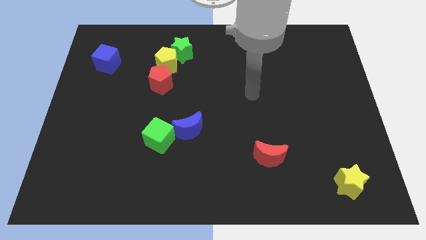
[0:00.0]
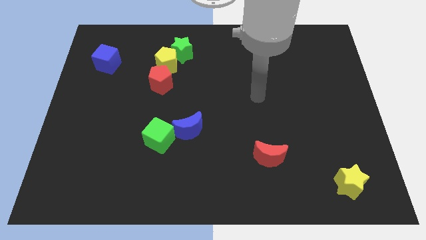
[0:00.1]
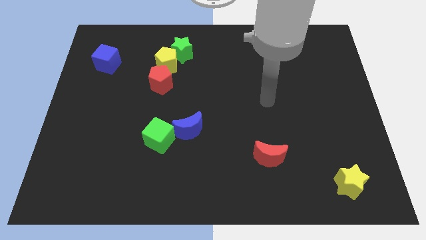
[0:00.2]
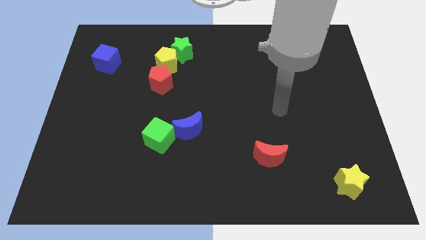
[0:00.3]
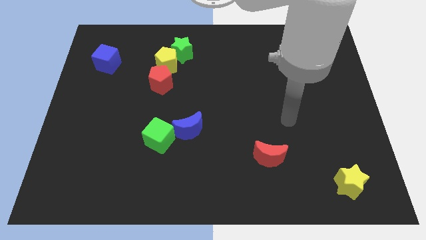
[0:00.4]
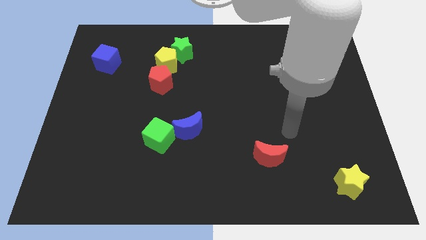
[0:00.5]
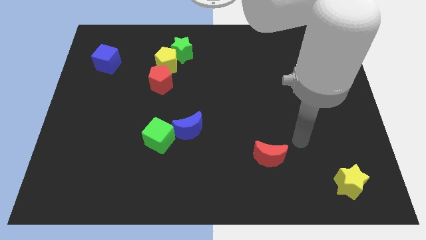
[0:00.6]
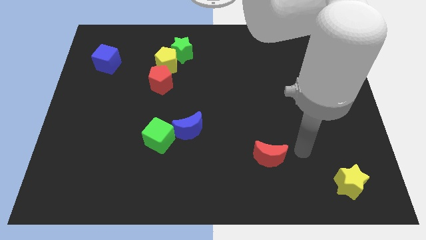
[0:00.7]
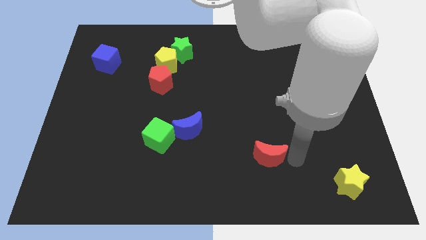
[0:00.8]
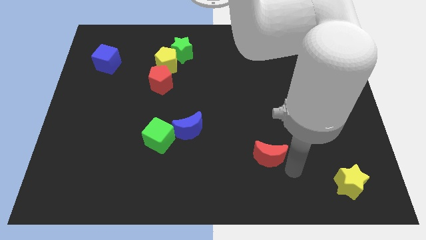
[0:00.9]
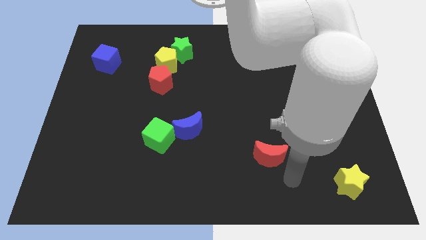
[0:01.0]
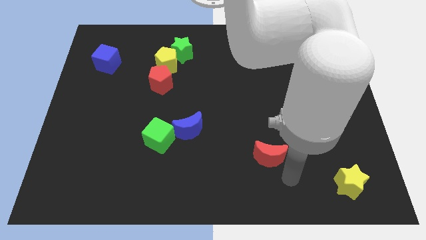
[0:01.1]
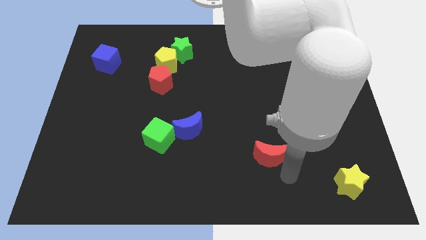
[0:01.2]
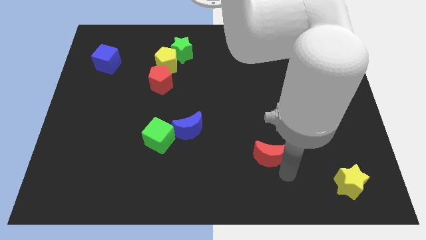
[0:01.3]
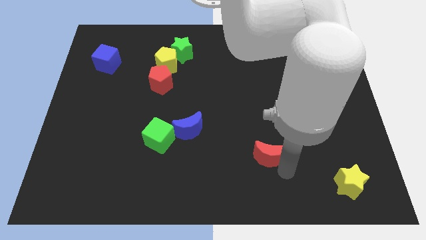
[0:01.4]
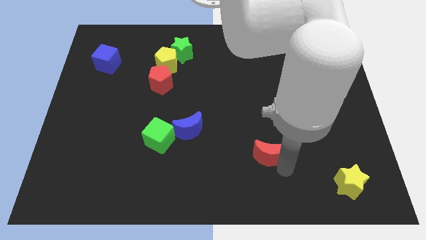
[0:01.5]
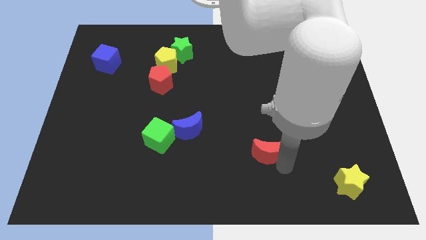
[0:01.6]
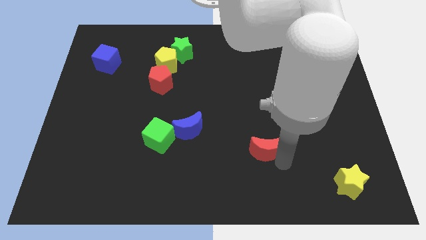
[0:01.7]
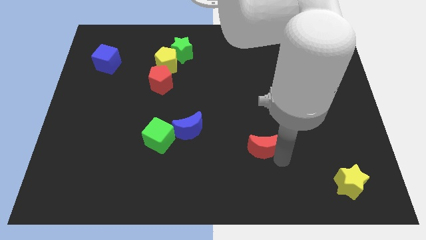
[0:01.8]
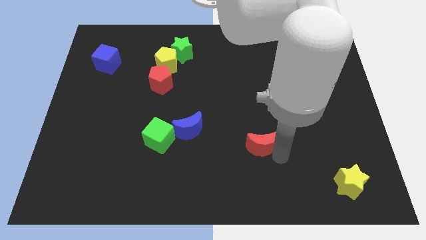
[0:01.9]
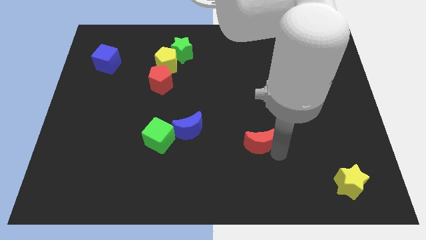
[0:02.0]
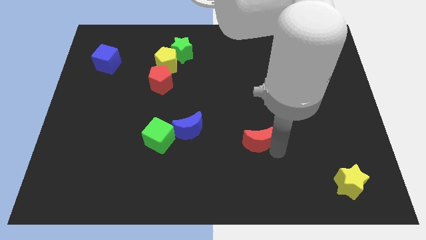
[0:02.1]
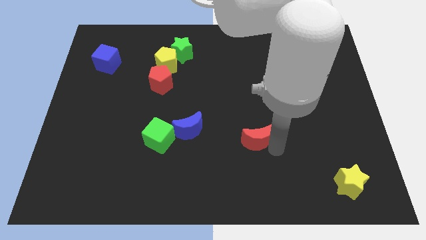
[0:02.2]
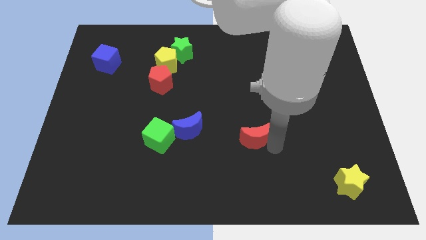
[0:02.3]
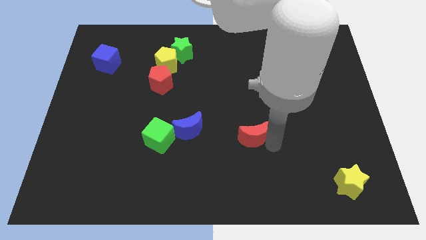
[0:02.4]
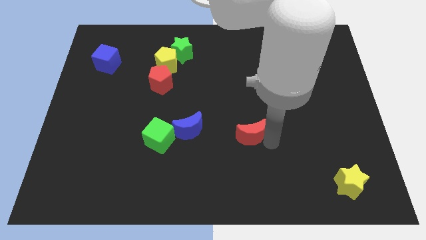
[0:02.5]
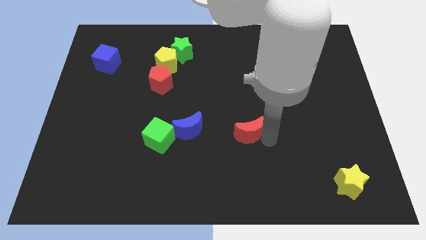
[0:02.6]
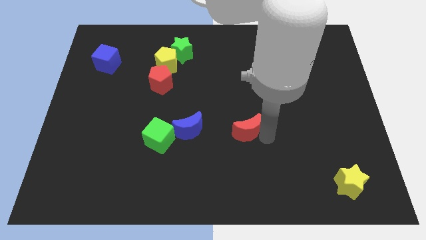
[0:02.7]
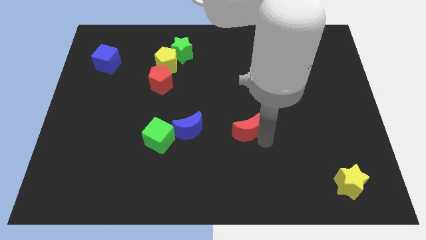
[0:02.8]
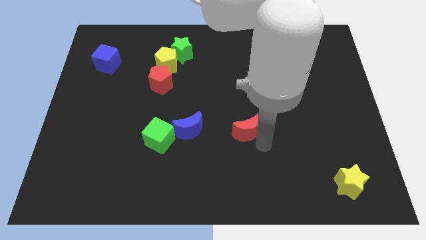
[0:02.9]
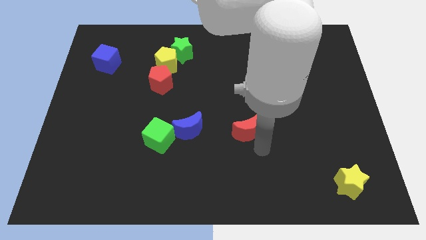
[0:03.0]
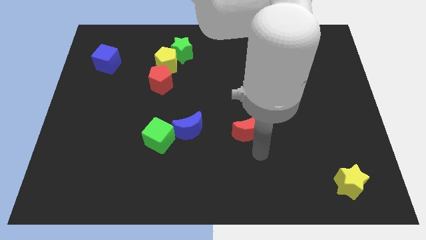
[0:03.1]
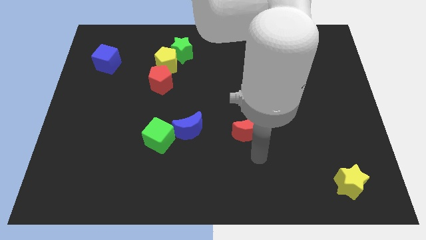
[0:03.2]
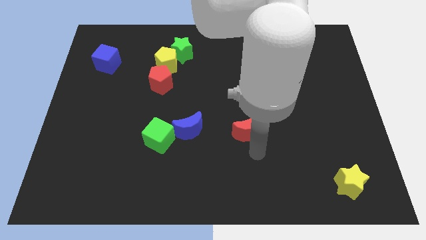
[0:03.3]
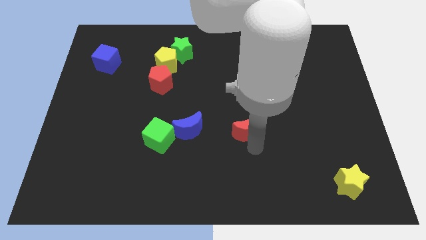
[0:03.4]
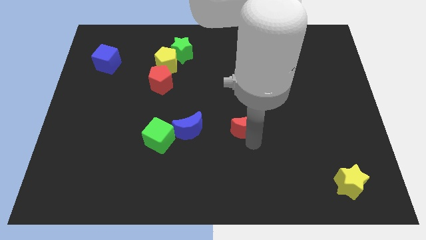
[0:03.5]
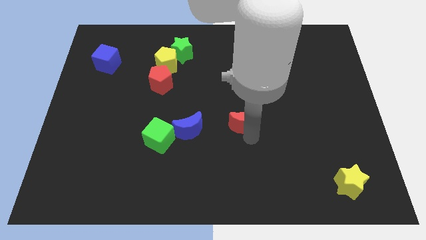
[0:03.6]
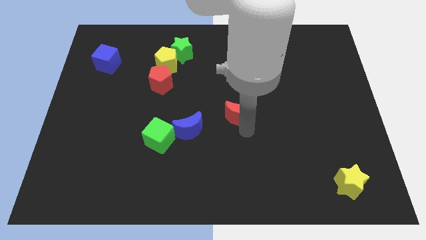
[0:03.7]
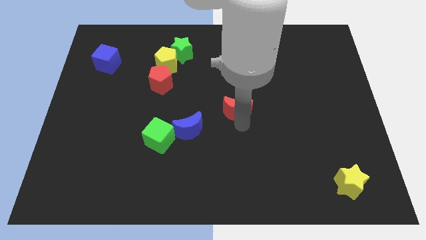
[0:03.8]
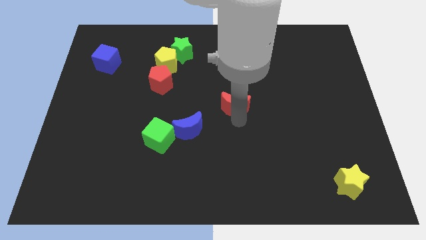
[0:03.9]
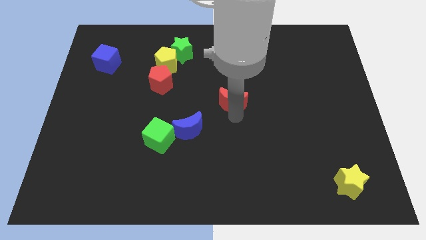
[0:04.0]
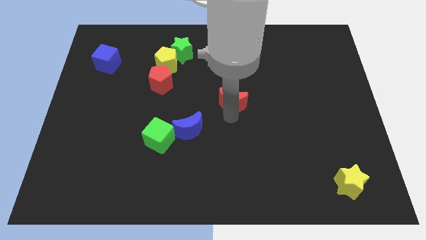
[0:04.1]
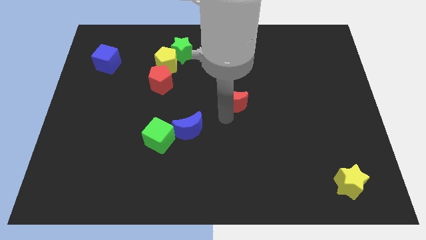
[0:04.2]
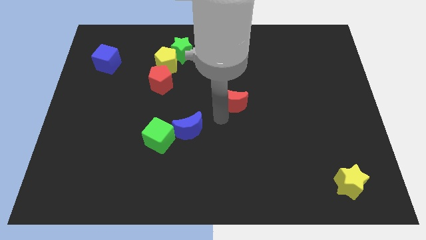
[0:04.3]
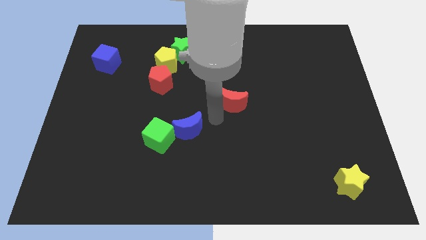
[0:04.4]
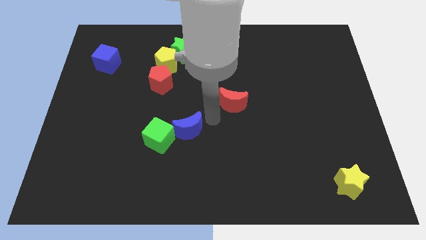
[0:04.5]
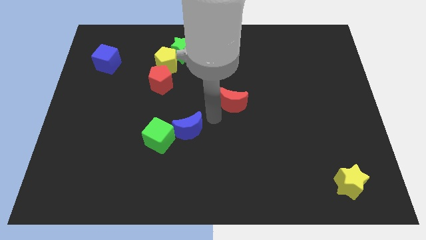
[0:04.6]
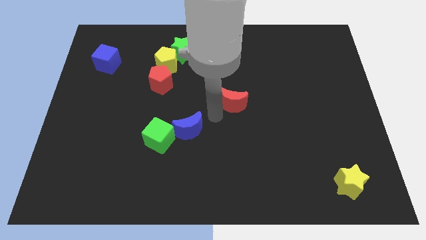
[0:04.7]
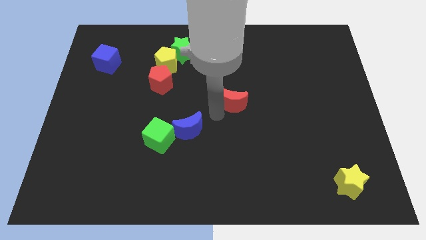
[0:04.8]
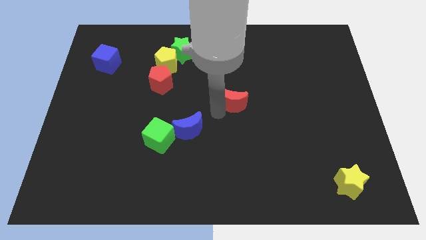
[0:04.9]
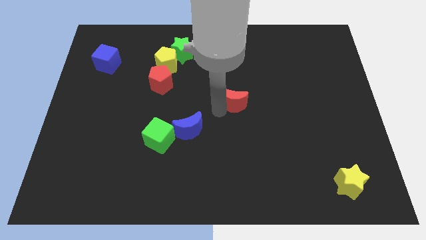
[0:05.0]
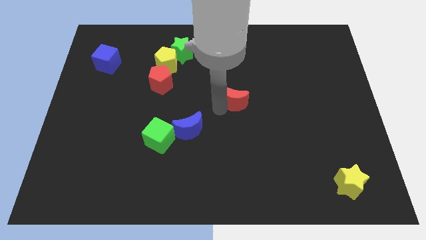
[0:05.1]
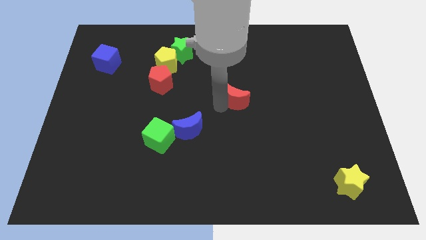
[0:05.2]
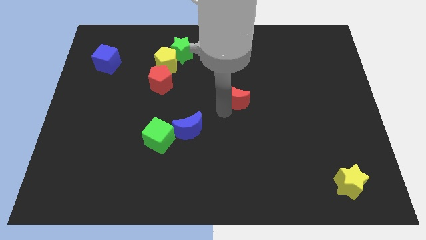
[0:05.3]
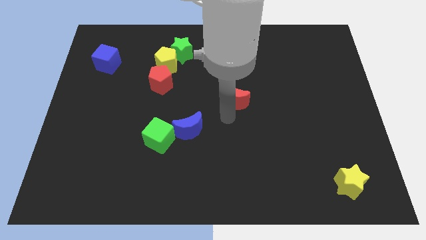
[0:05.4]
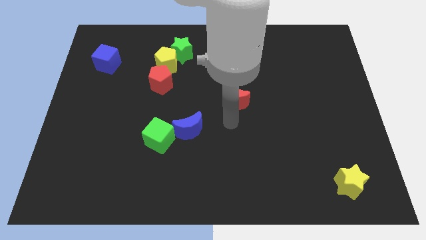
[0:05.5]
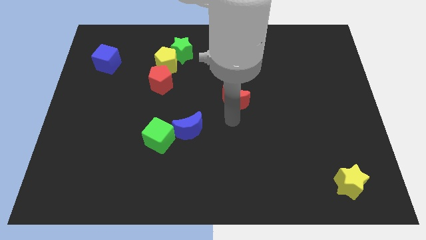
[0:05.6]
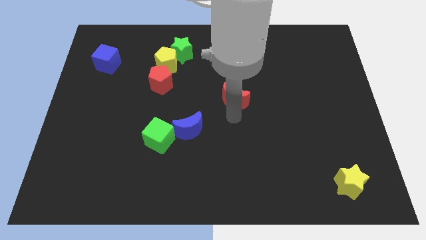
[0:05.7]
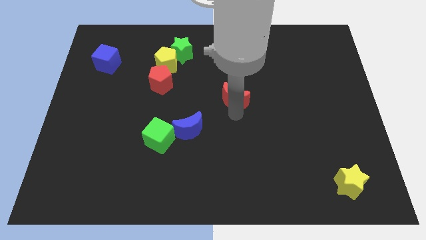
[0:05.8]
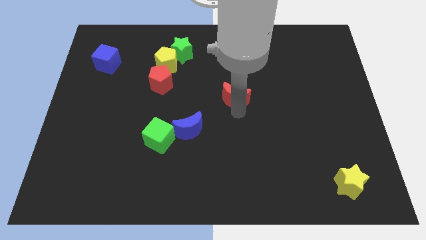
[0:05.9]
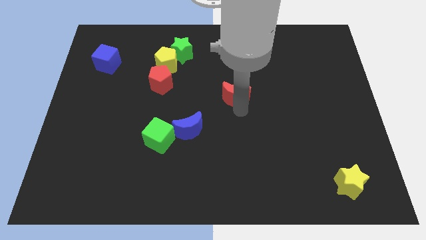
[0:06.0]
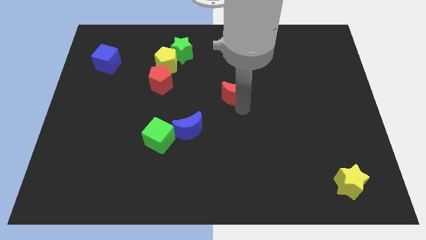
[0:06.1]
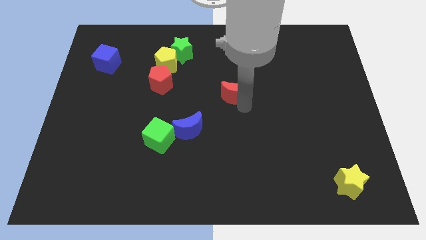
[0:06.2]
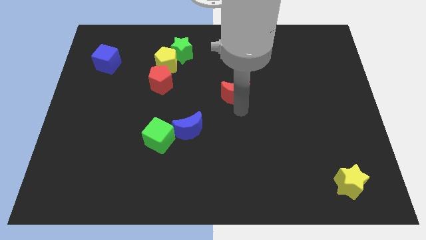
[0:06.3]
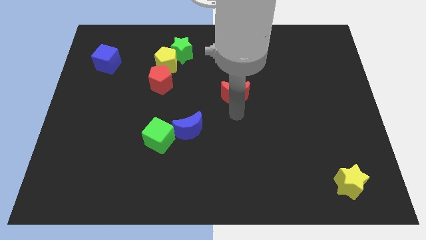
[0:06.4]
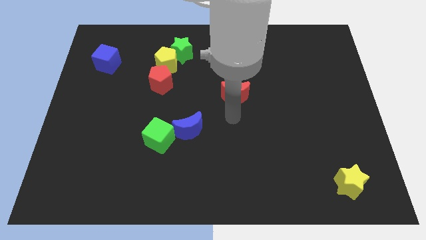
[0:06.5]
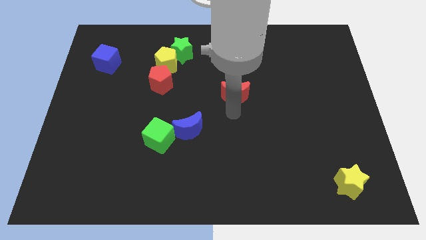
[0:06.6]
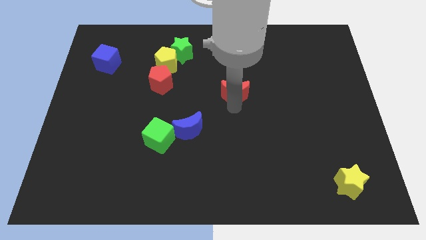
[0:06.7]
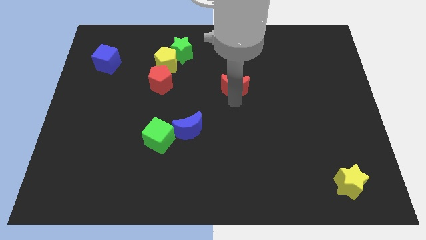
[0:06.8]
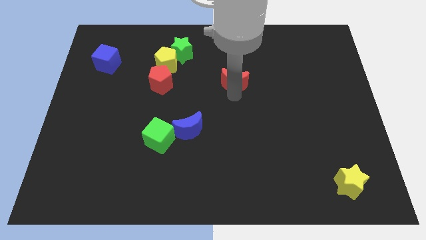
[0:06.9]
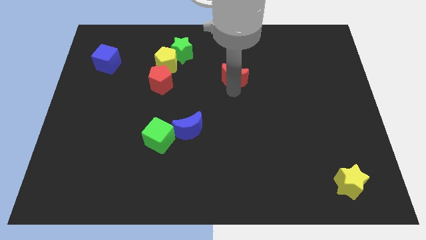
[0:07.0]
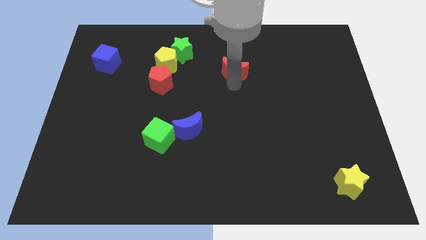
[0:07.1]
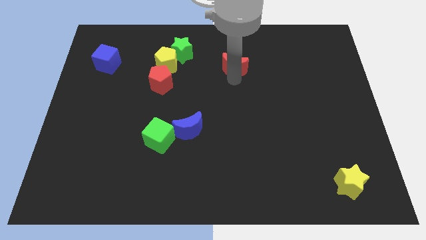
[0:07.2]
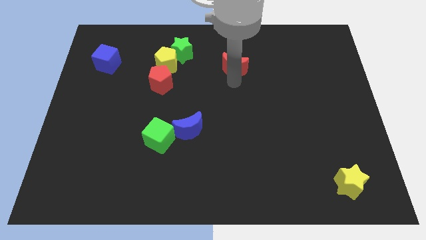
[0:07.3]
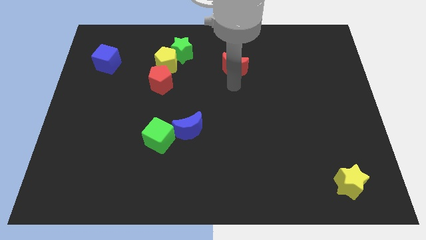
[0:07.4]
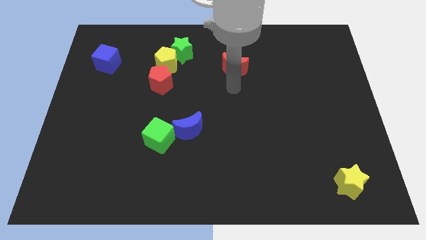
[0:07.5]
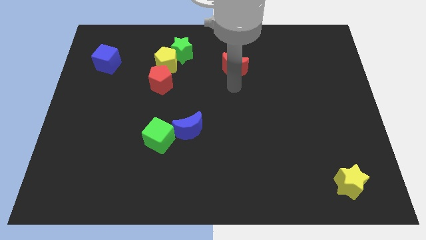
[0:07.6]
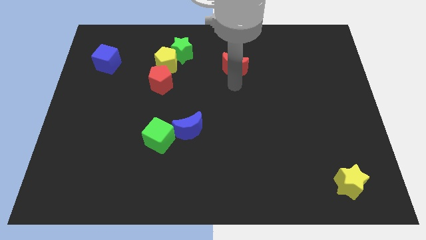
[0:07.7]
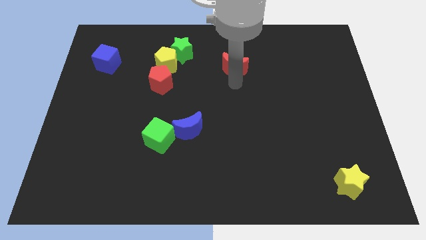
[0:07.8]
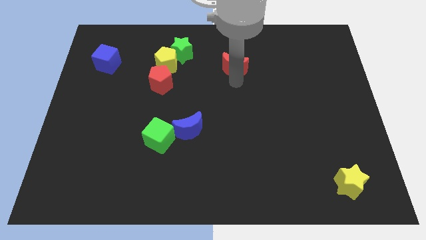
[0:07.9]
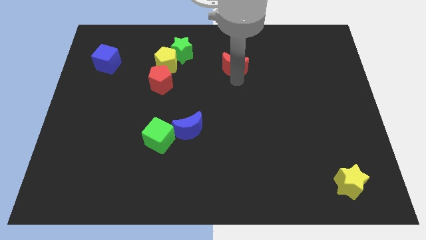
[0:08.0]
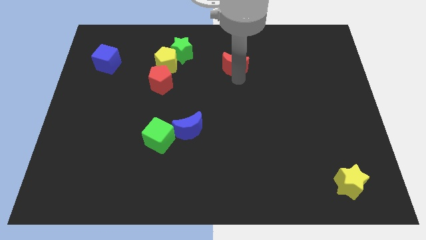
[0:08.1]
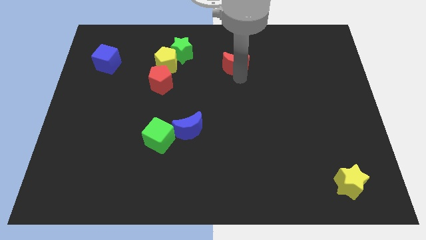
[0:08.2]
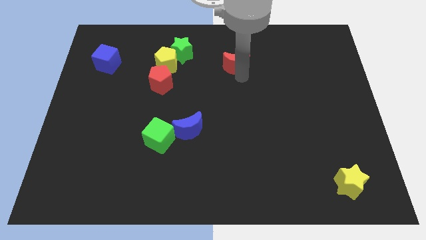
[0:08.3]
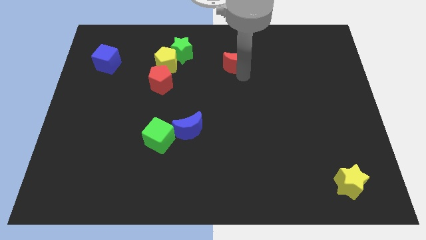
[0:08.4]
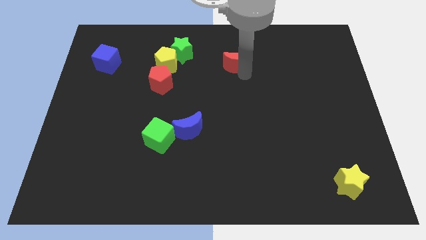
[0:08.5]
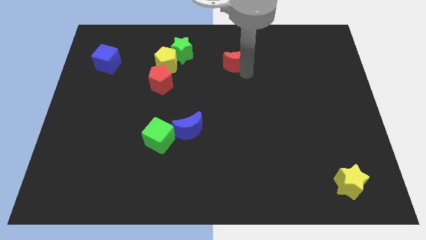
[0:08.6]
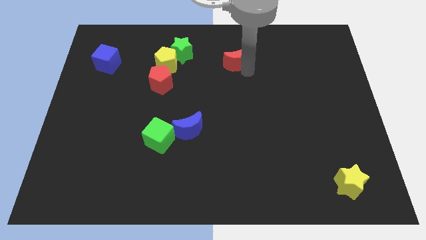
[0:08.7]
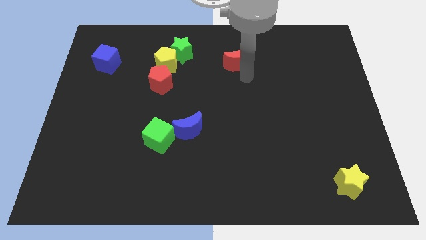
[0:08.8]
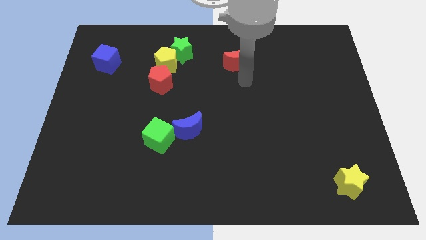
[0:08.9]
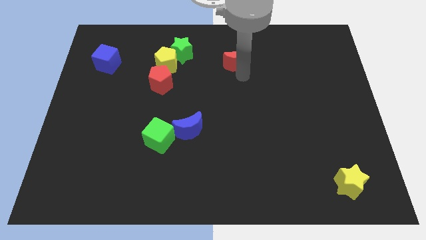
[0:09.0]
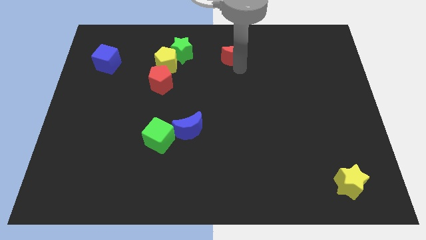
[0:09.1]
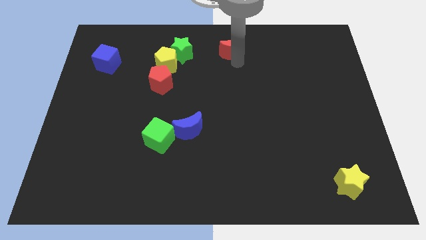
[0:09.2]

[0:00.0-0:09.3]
push the red moon to the top side
